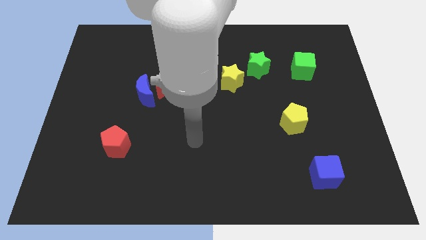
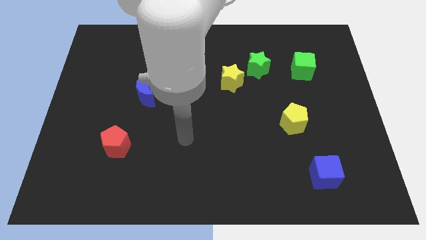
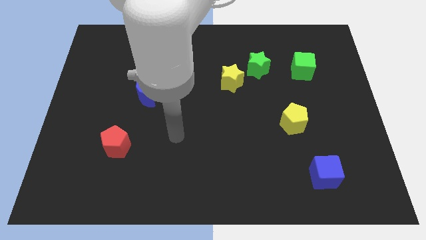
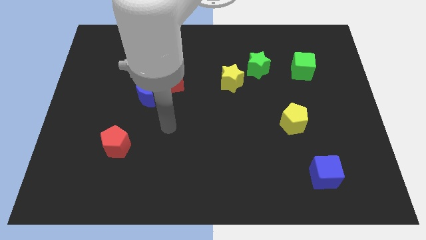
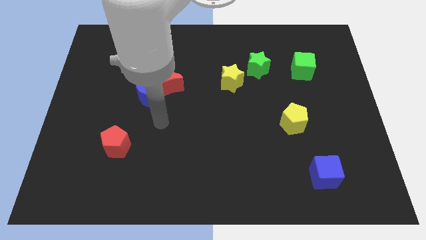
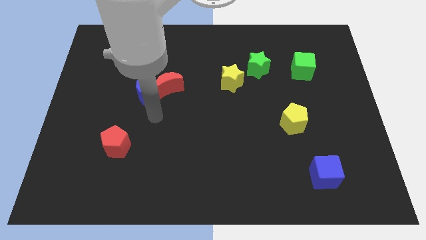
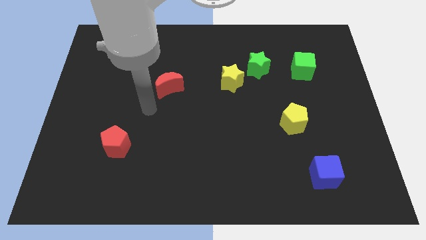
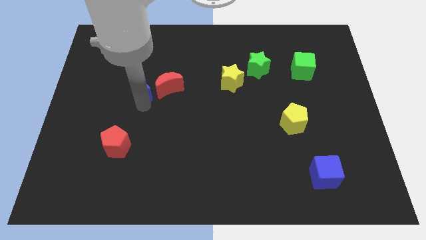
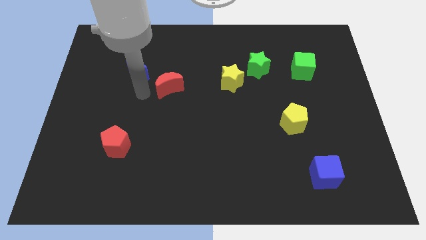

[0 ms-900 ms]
separate the red moon from the blue moon

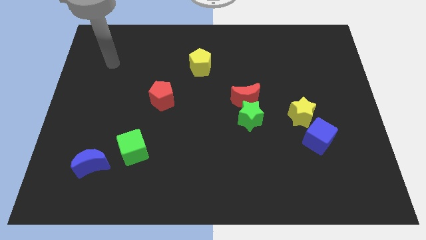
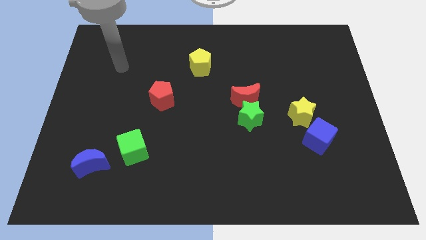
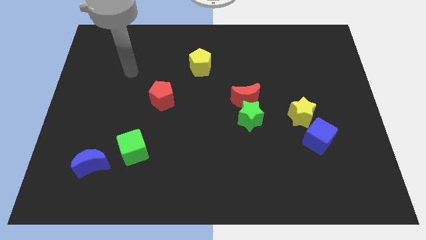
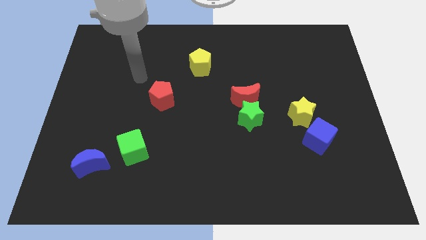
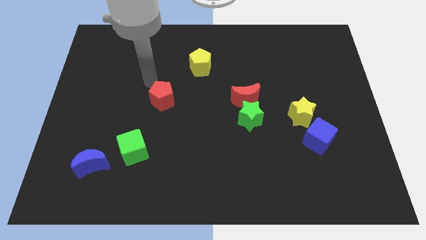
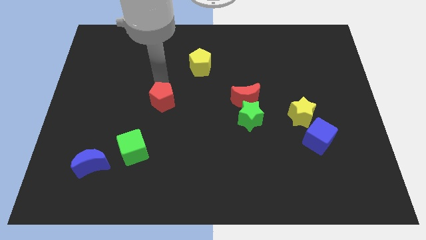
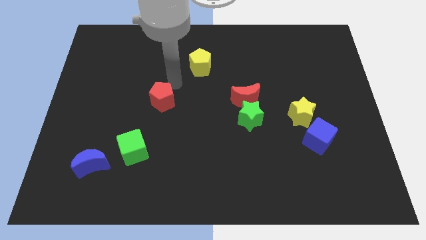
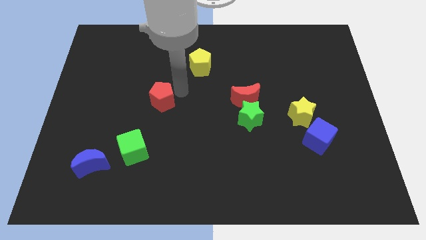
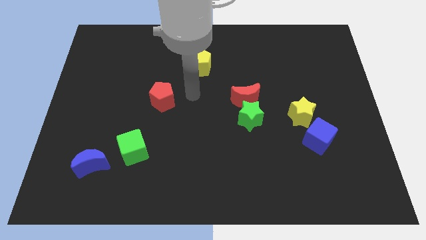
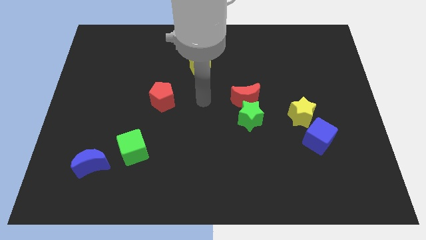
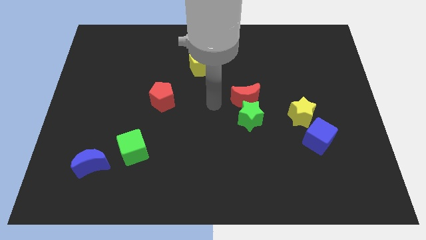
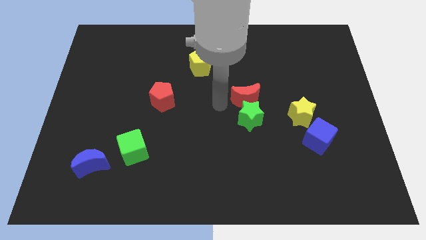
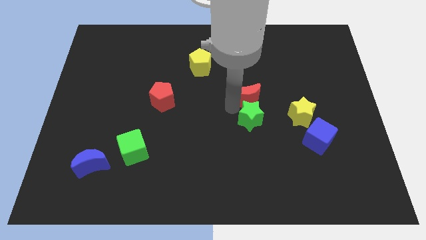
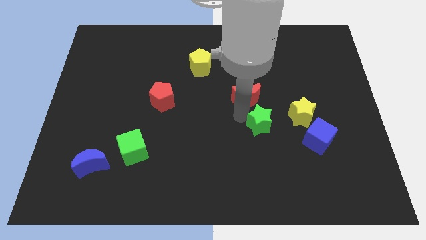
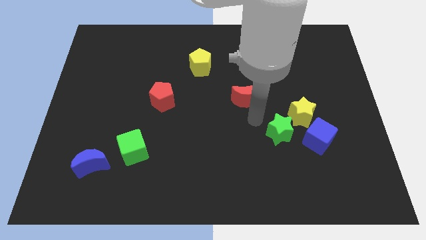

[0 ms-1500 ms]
separate the red moon from the green star

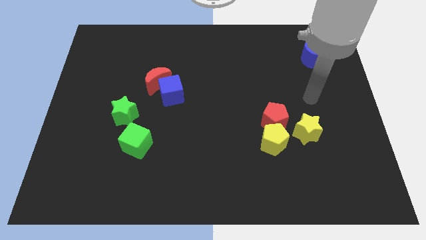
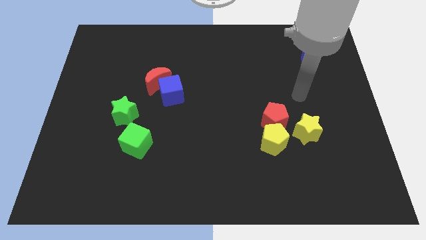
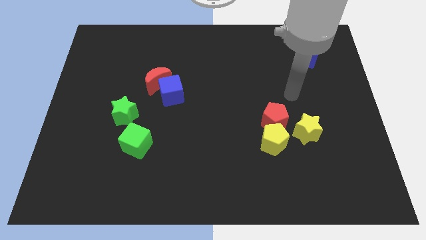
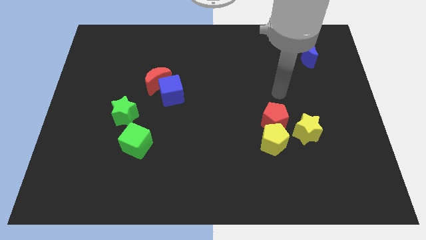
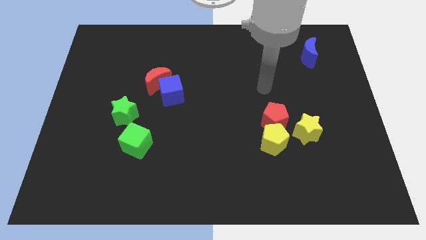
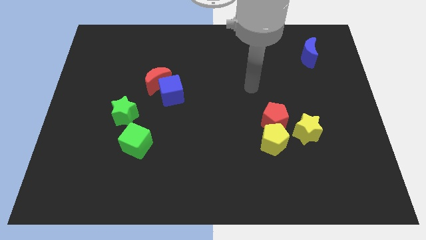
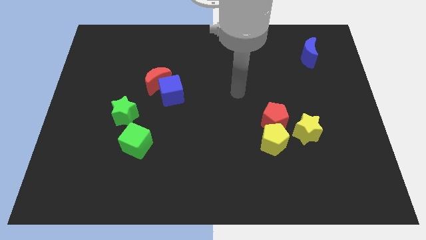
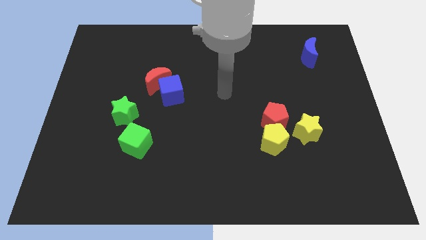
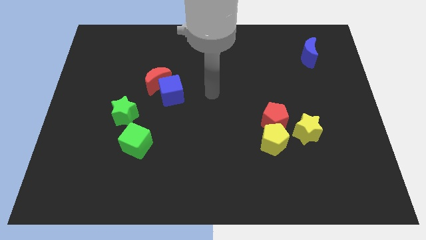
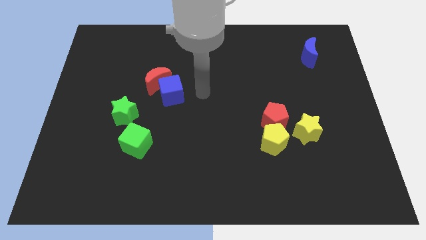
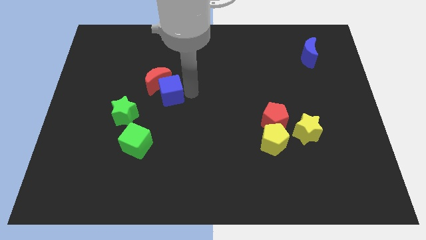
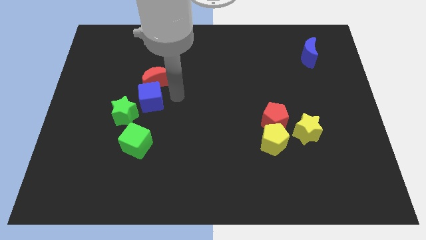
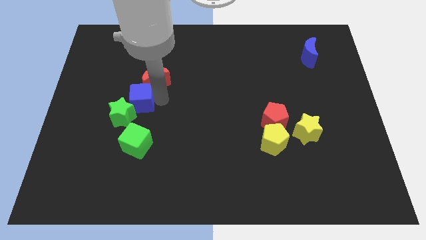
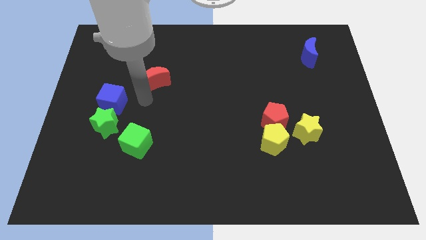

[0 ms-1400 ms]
pull the red moon apart from the blue cube

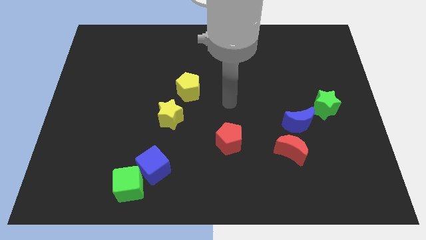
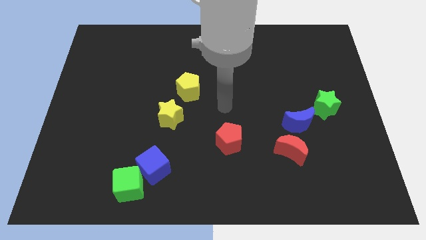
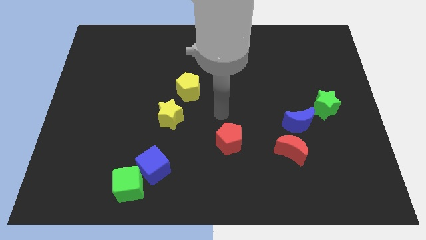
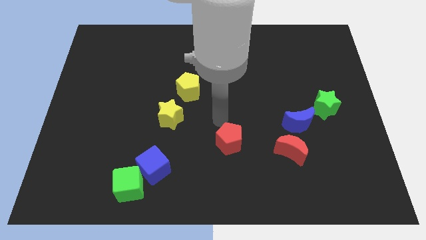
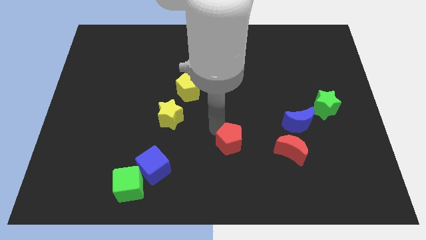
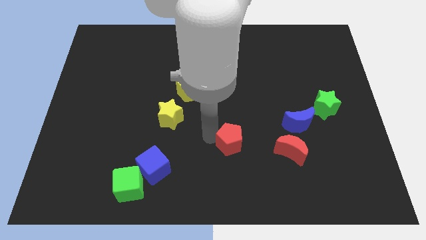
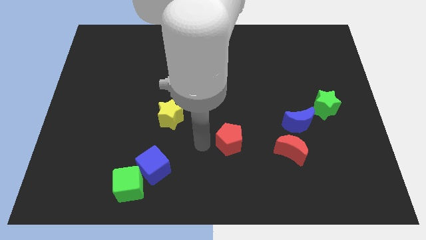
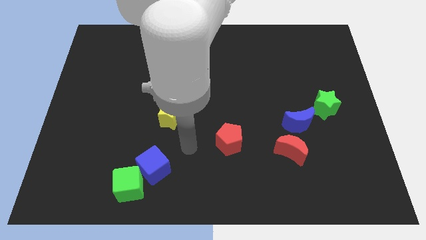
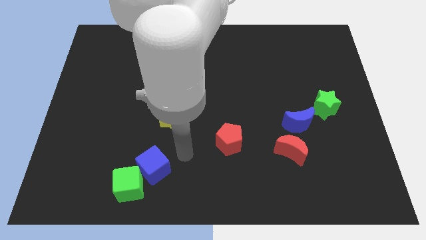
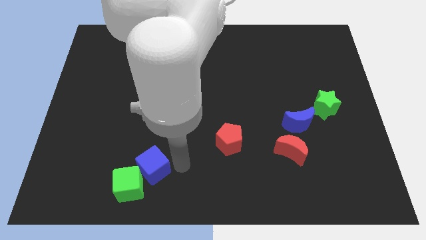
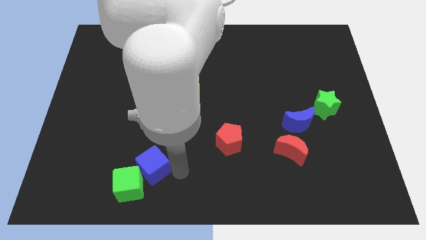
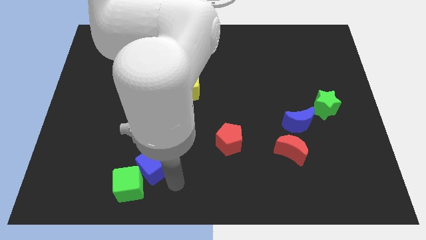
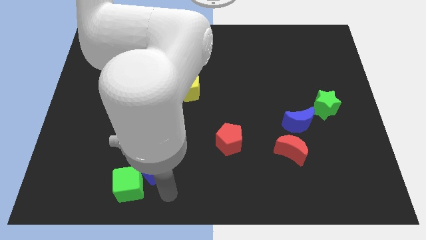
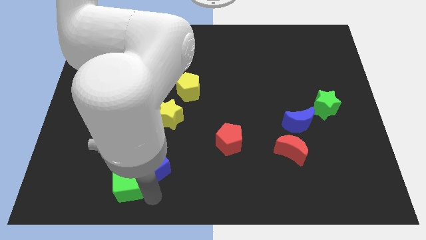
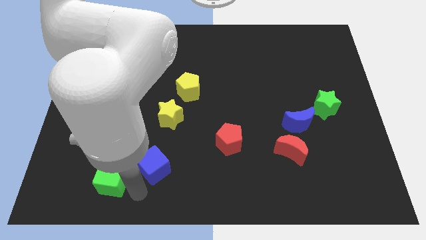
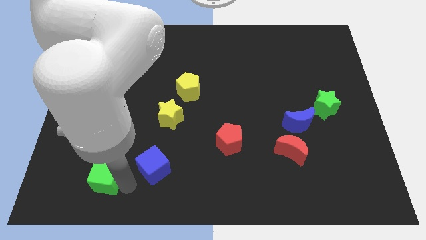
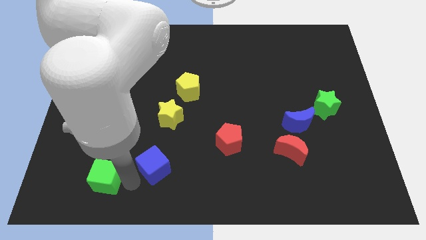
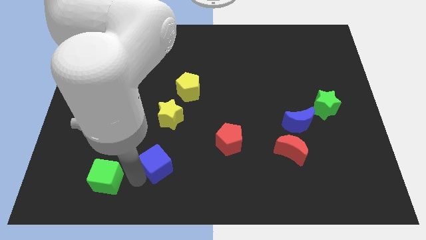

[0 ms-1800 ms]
separate the blue cube from the green cube

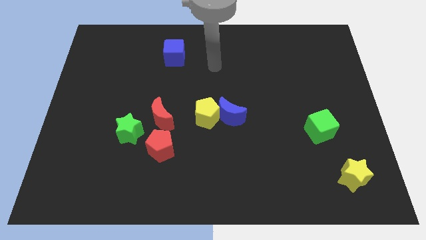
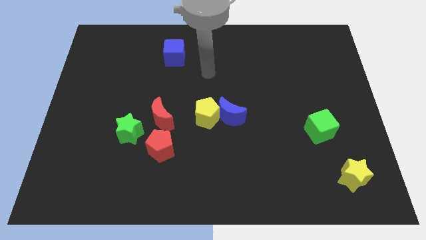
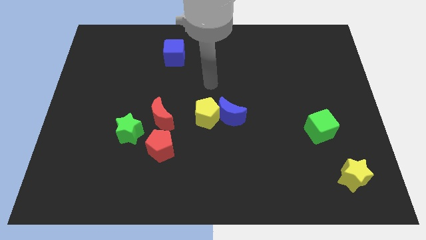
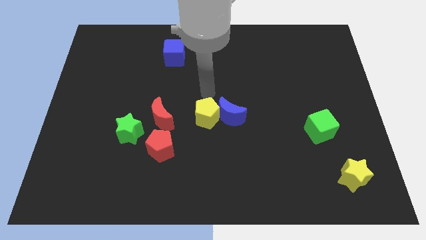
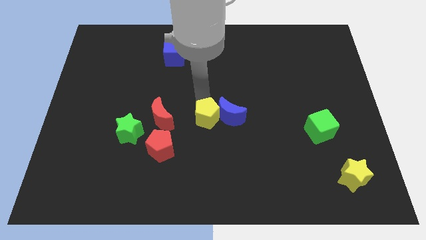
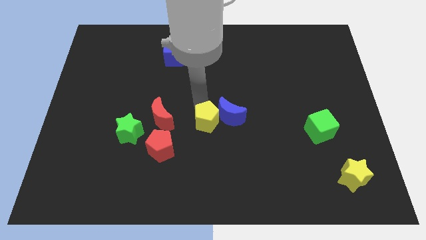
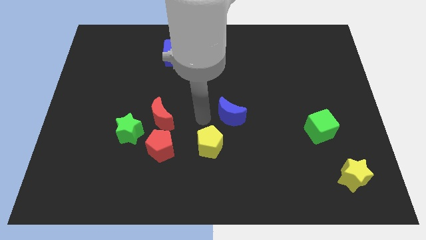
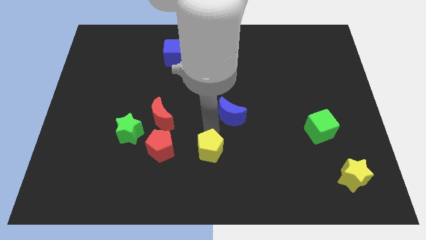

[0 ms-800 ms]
pull the blue moon apart from the yellow pentagon

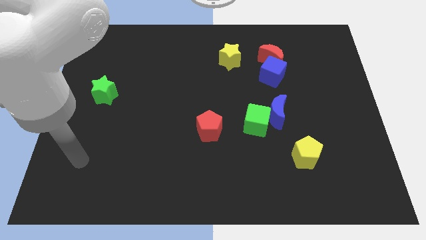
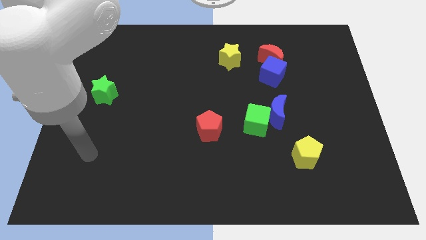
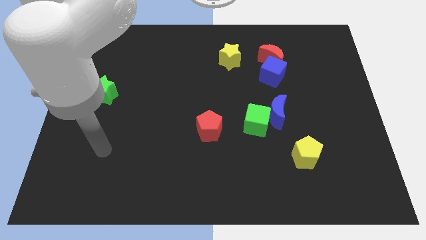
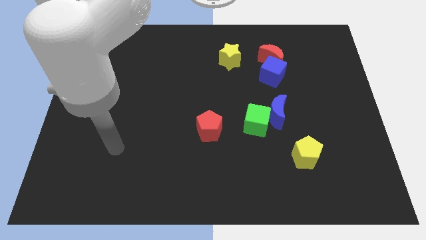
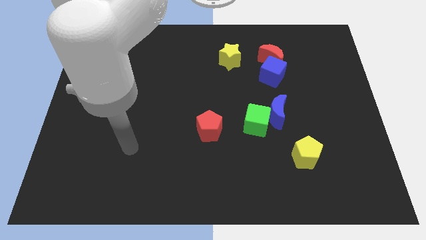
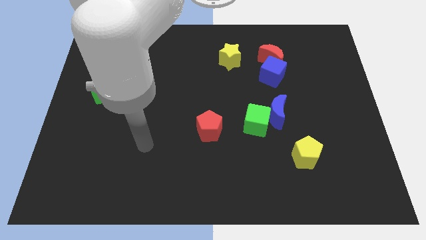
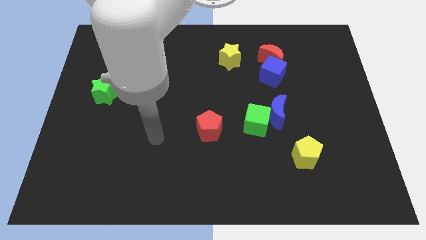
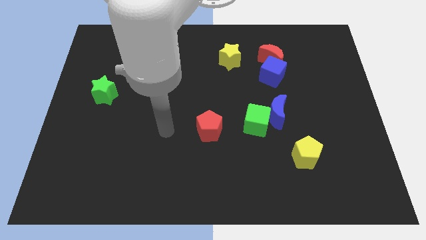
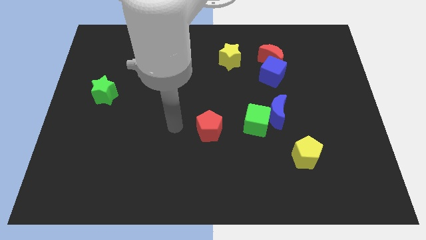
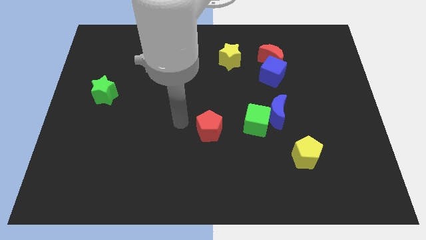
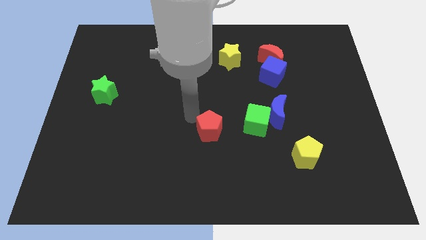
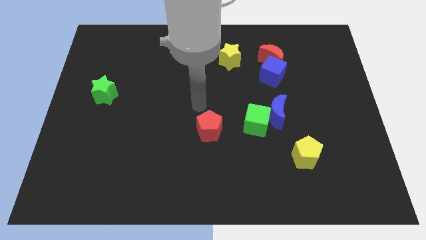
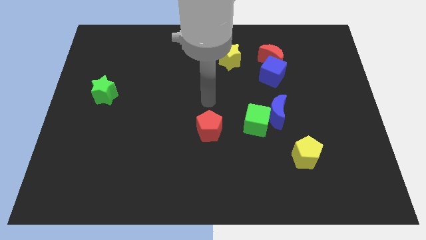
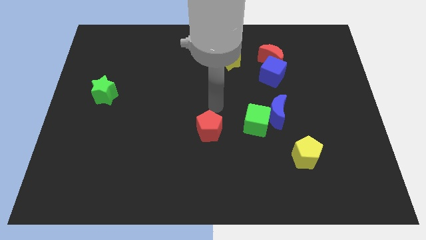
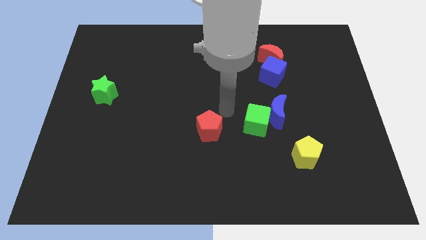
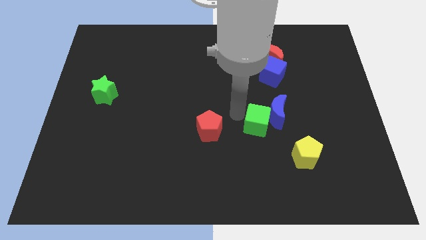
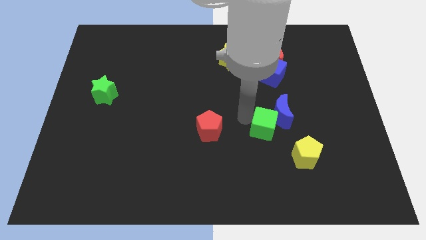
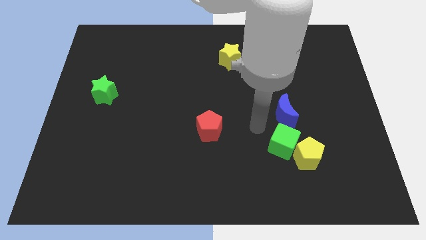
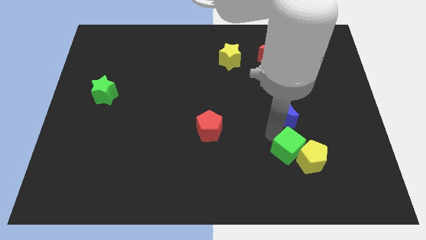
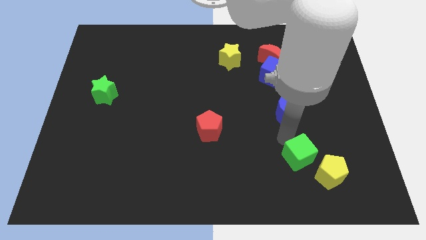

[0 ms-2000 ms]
move the blue moon away from the green cube

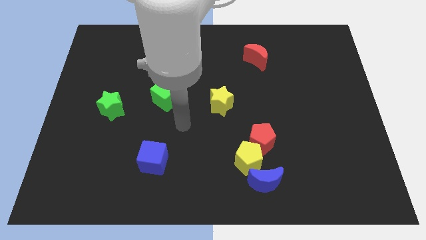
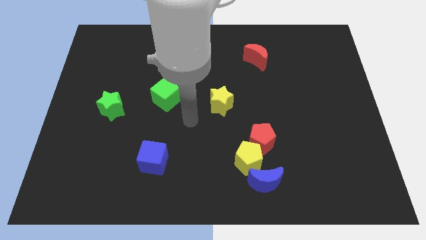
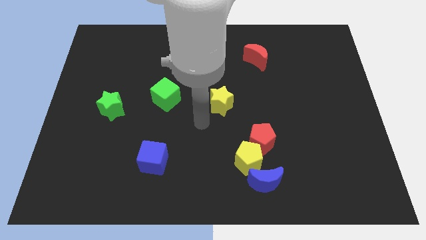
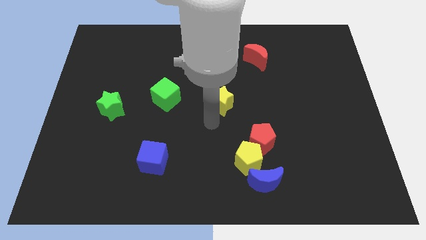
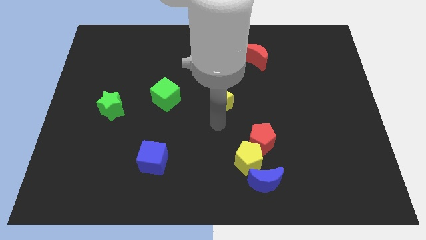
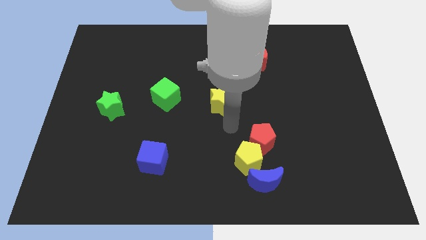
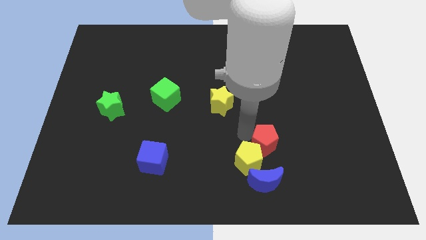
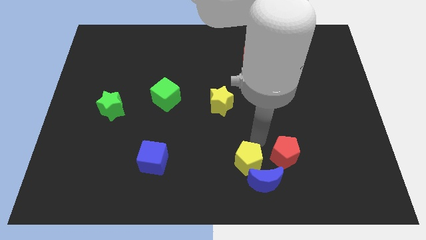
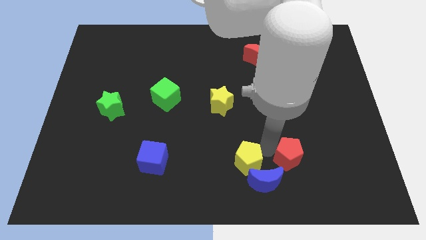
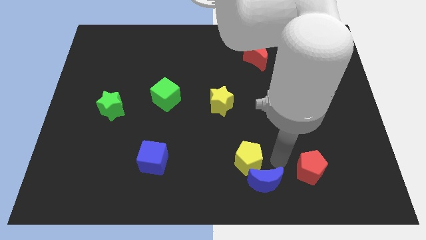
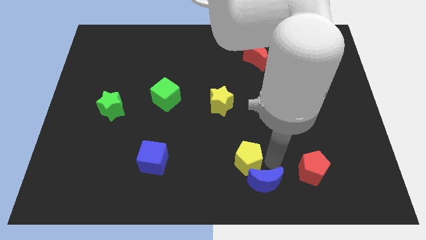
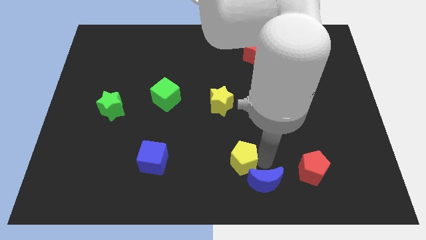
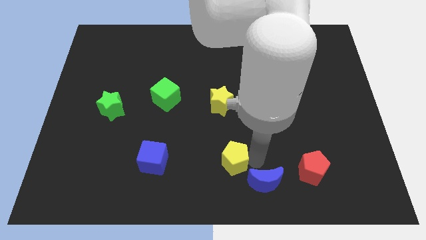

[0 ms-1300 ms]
move the yellow pentagon away from the red pentagon and blue moon
